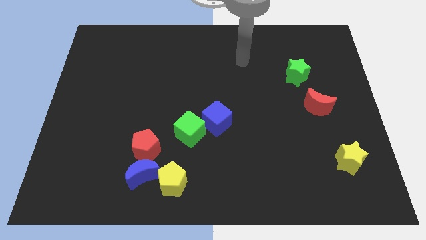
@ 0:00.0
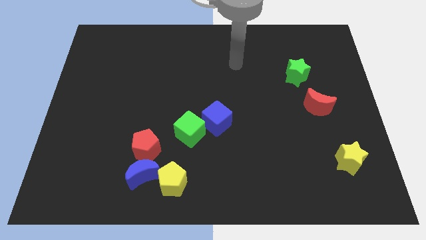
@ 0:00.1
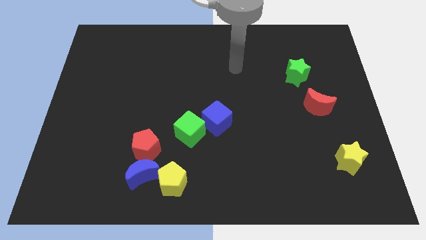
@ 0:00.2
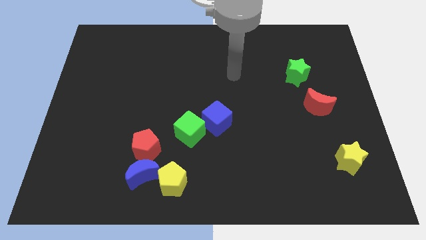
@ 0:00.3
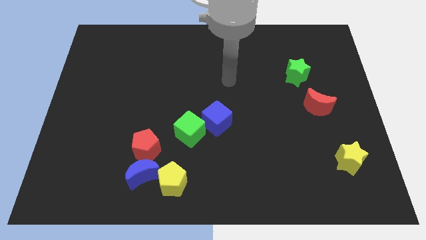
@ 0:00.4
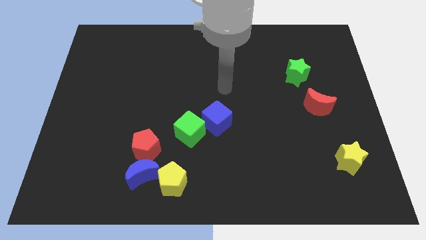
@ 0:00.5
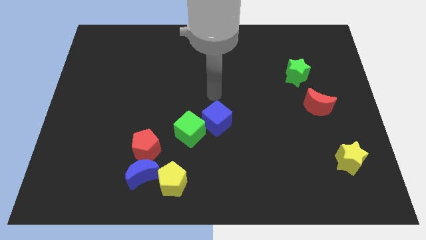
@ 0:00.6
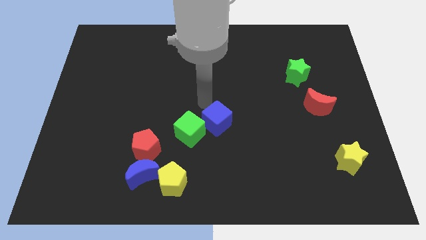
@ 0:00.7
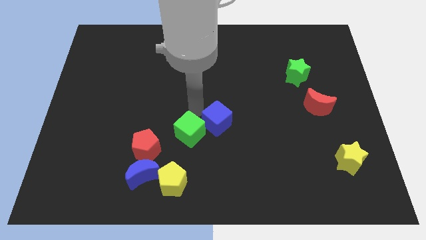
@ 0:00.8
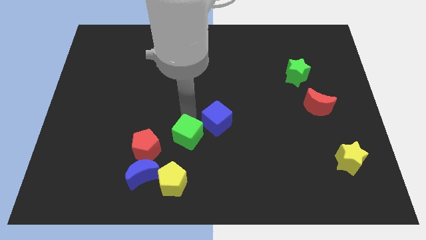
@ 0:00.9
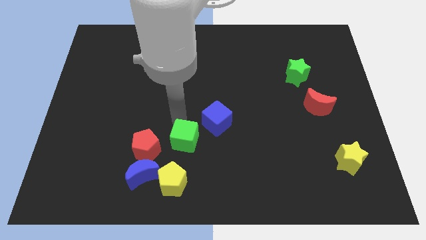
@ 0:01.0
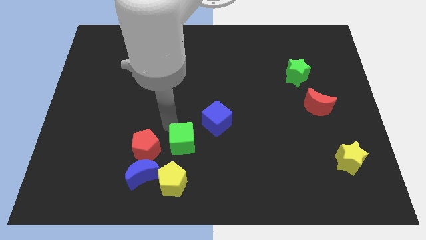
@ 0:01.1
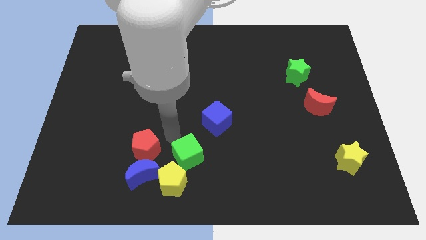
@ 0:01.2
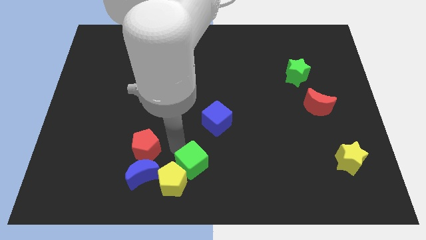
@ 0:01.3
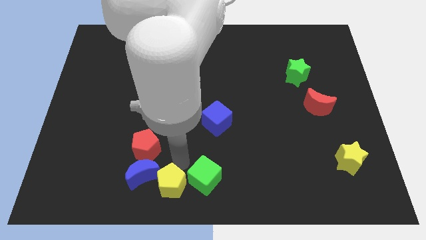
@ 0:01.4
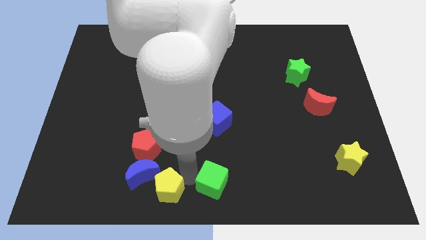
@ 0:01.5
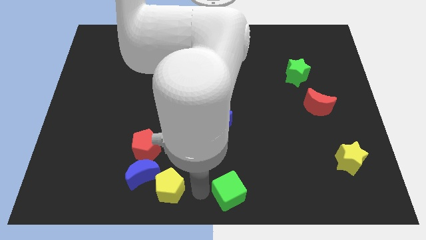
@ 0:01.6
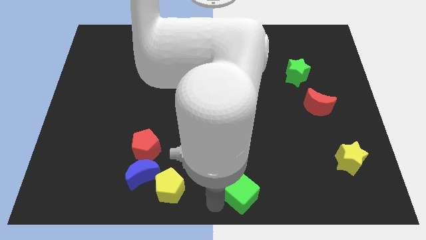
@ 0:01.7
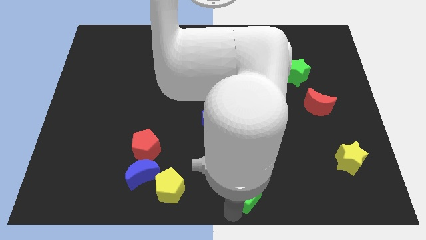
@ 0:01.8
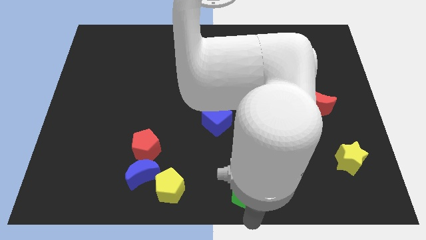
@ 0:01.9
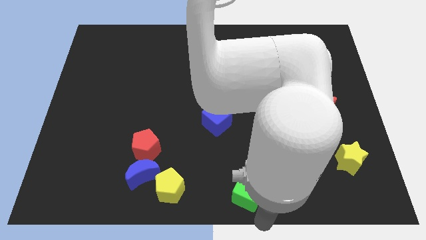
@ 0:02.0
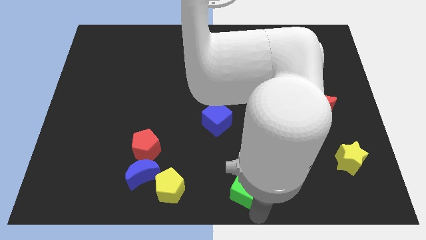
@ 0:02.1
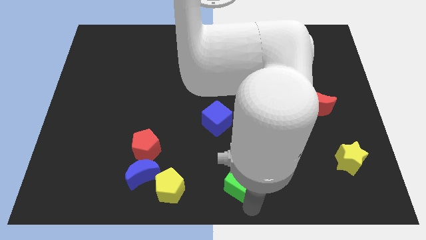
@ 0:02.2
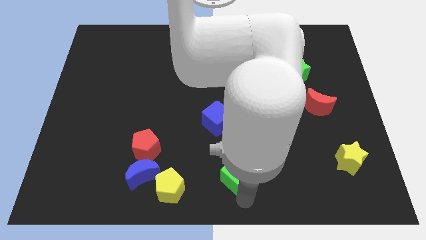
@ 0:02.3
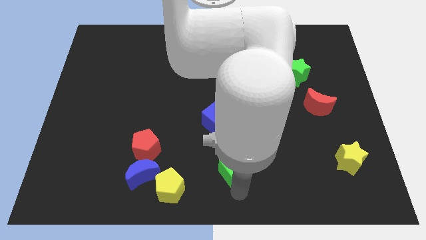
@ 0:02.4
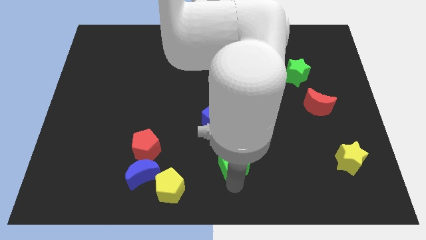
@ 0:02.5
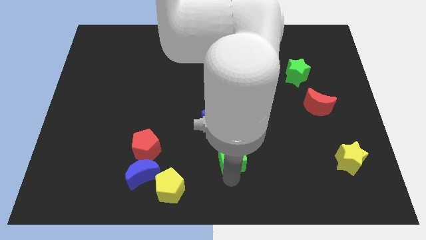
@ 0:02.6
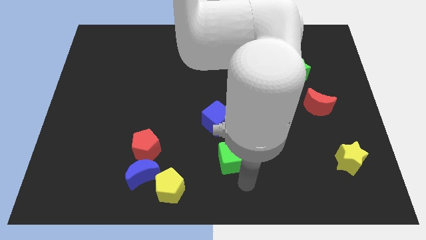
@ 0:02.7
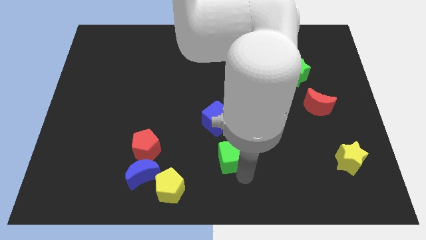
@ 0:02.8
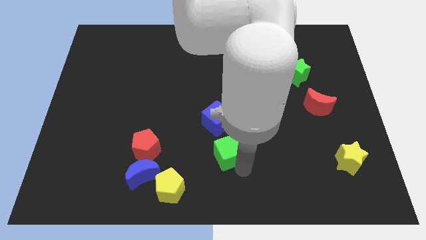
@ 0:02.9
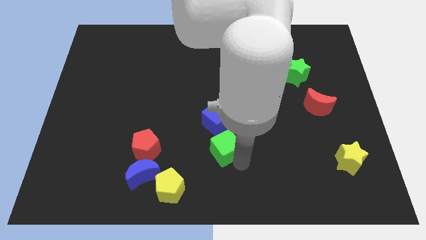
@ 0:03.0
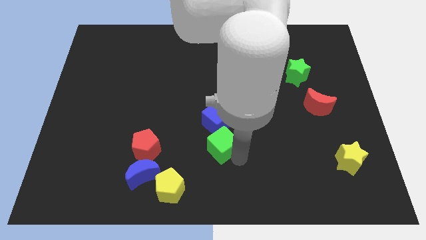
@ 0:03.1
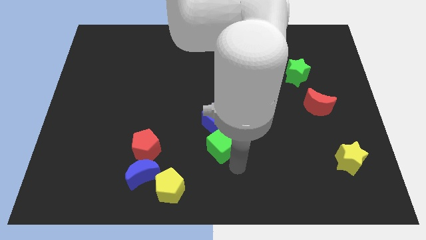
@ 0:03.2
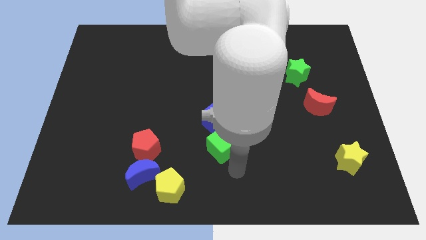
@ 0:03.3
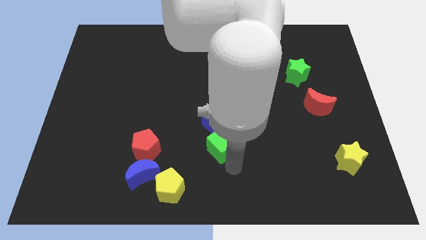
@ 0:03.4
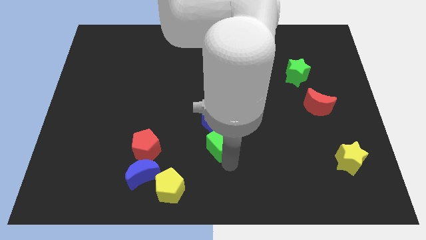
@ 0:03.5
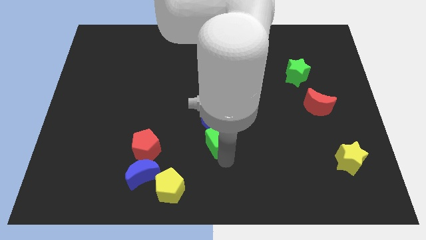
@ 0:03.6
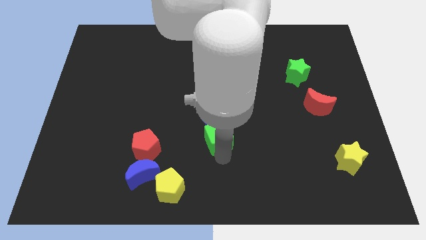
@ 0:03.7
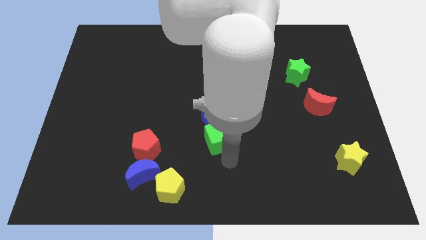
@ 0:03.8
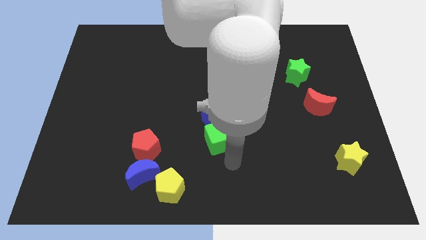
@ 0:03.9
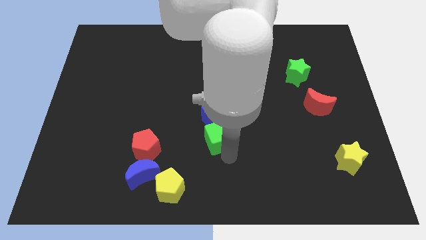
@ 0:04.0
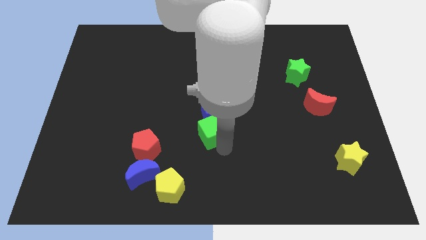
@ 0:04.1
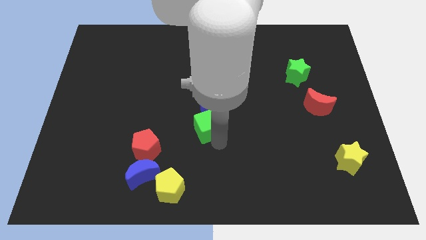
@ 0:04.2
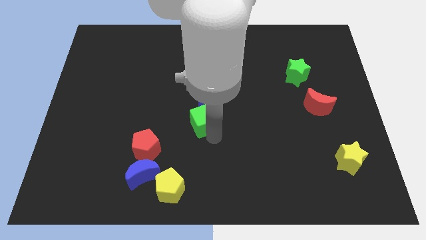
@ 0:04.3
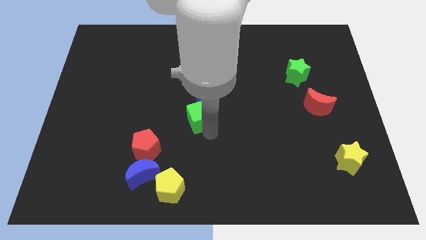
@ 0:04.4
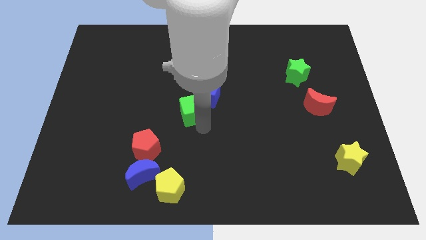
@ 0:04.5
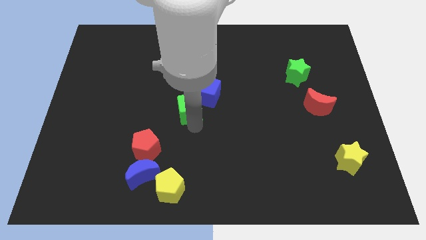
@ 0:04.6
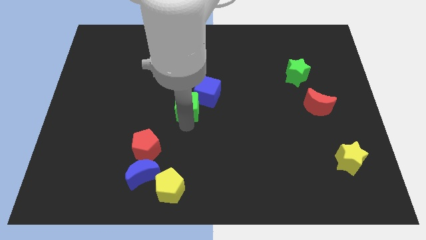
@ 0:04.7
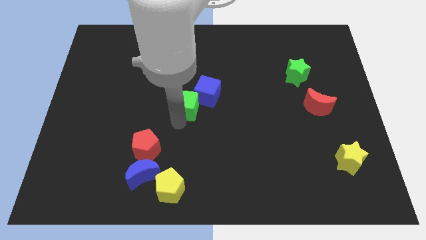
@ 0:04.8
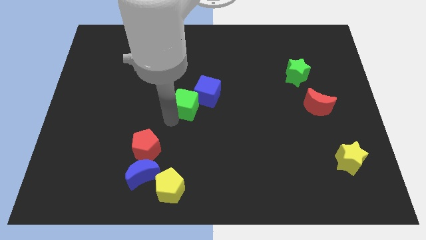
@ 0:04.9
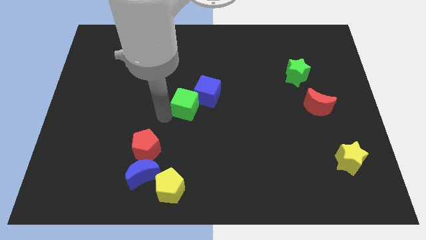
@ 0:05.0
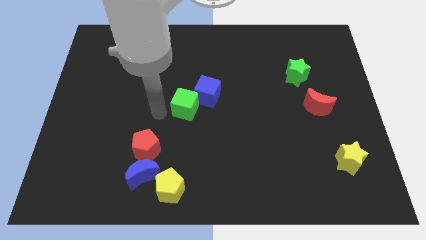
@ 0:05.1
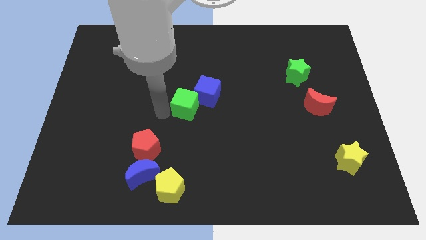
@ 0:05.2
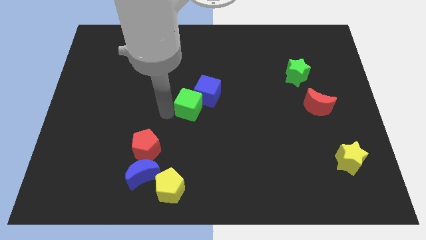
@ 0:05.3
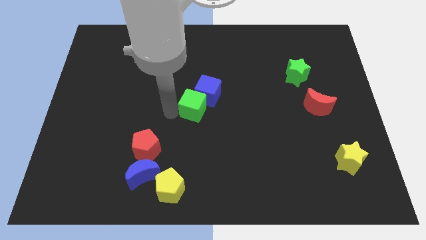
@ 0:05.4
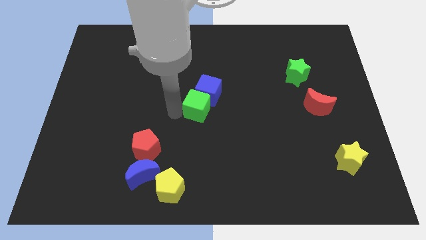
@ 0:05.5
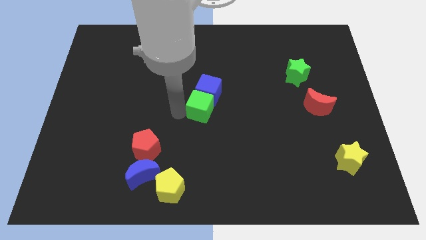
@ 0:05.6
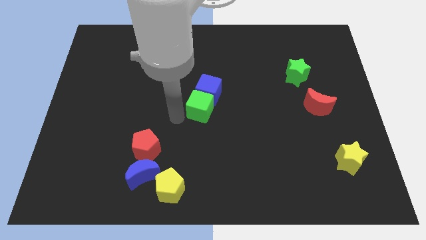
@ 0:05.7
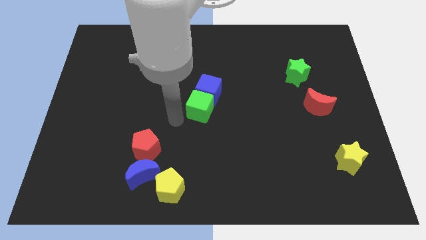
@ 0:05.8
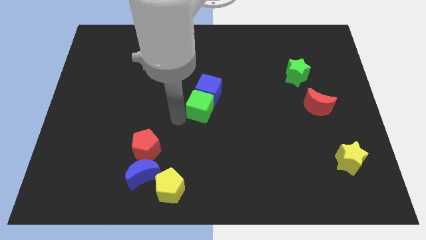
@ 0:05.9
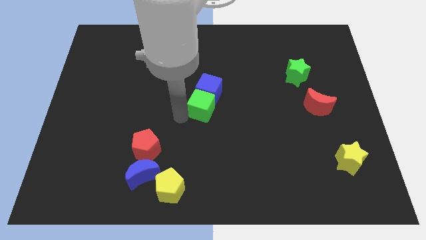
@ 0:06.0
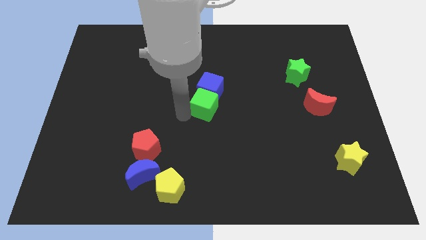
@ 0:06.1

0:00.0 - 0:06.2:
slightly slide the green cube diagonally upwards and to the right

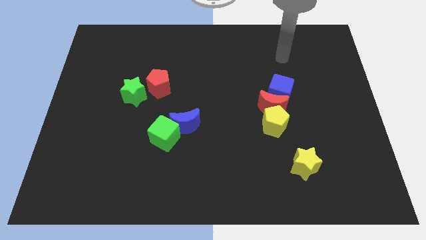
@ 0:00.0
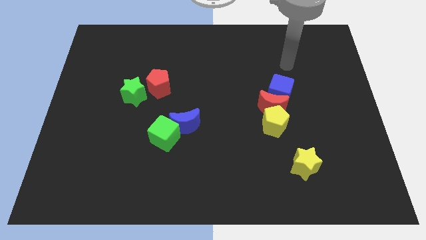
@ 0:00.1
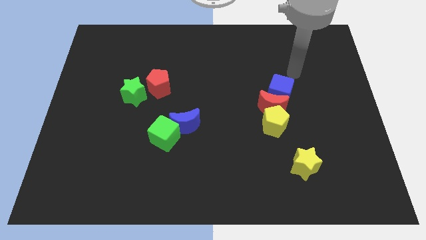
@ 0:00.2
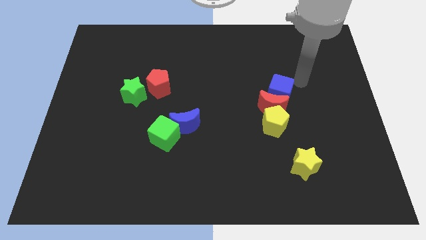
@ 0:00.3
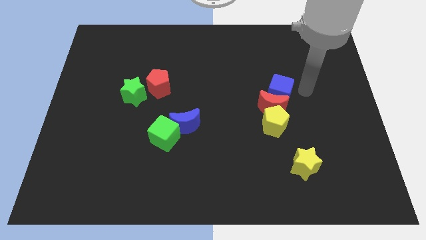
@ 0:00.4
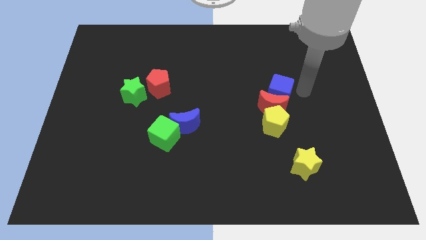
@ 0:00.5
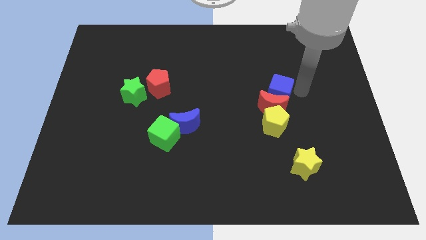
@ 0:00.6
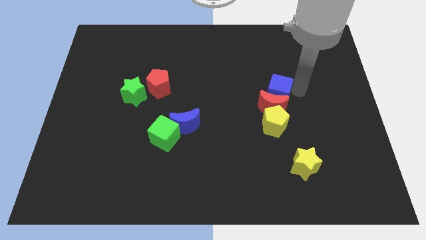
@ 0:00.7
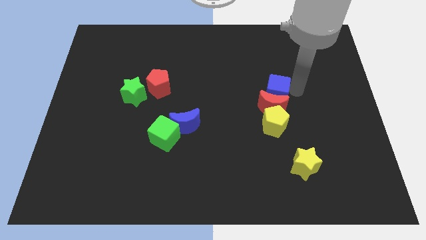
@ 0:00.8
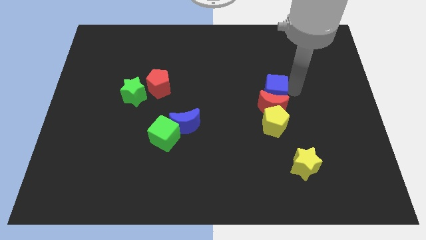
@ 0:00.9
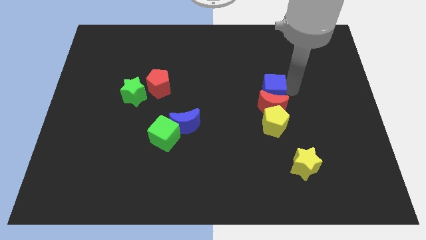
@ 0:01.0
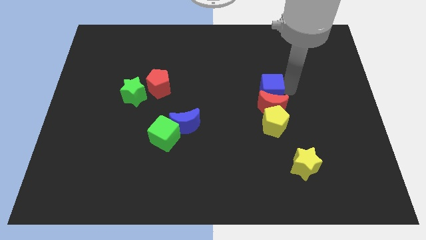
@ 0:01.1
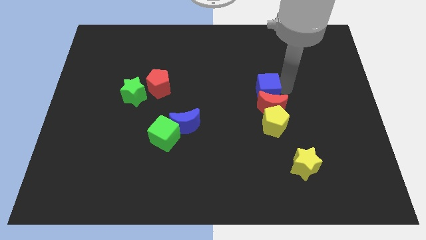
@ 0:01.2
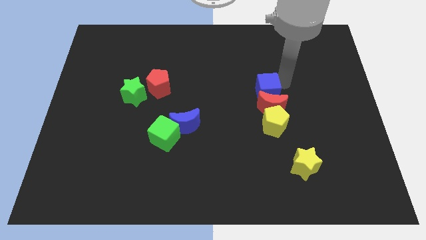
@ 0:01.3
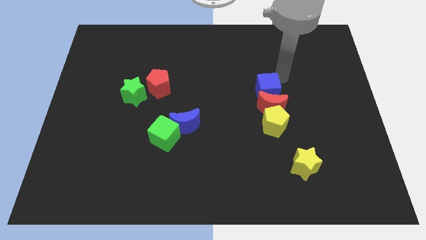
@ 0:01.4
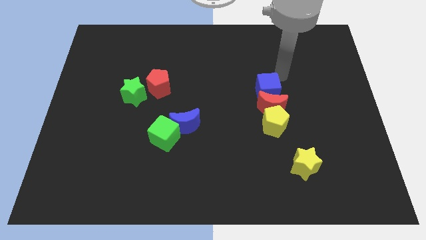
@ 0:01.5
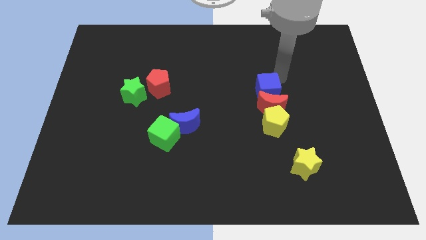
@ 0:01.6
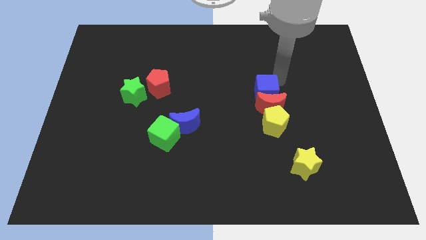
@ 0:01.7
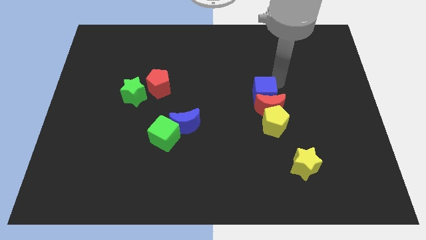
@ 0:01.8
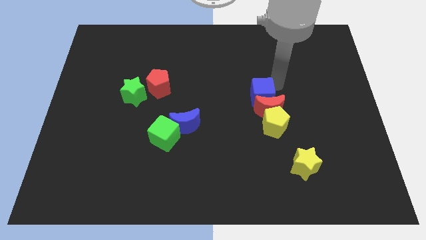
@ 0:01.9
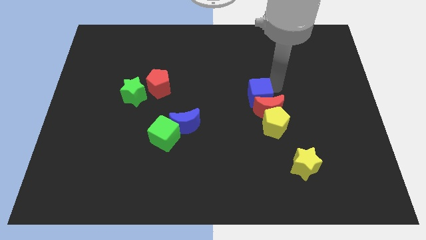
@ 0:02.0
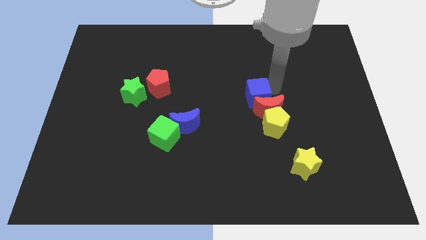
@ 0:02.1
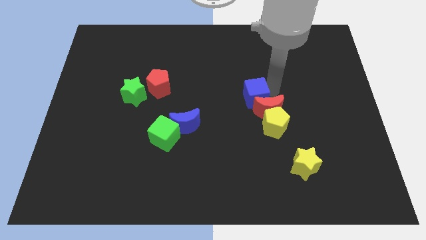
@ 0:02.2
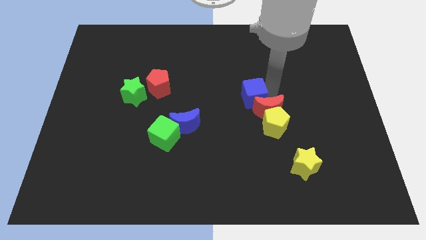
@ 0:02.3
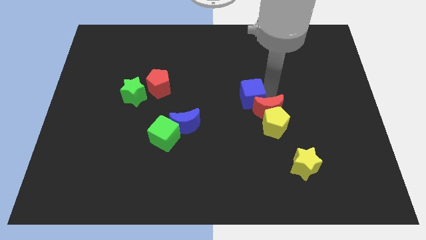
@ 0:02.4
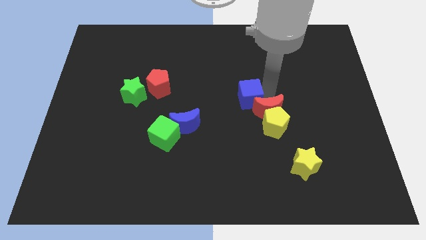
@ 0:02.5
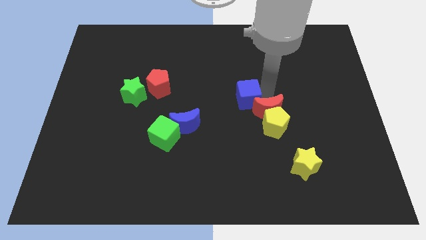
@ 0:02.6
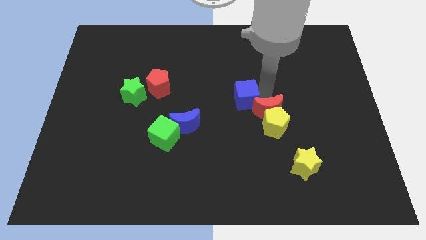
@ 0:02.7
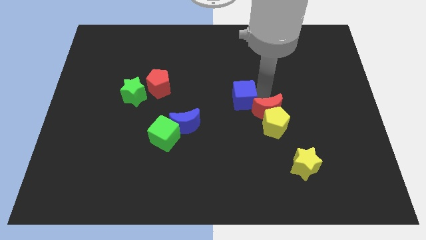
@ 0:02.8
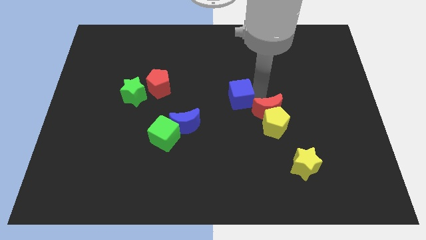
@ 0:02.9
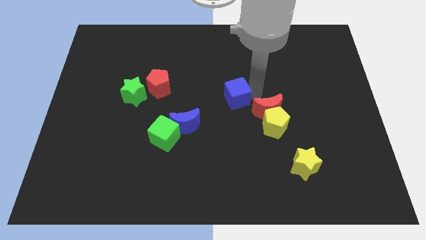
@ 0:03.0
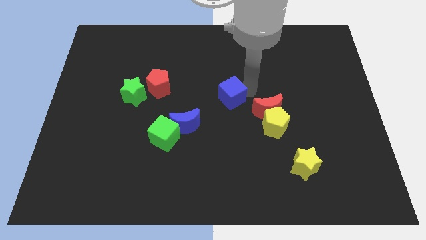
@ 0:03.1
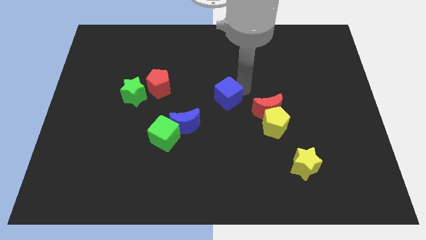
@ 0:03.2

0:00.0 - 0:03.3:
move the blue cube down and then left a little bit
